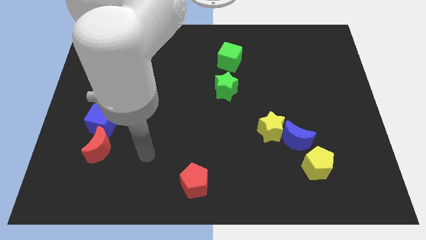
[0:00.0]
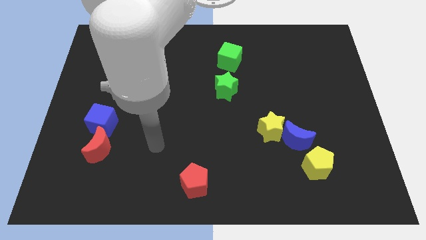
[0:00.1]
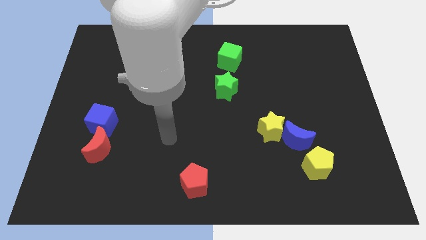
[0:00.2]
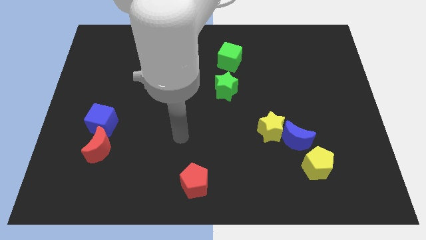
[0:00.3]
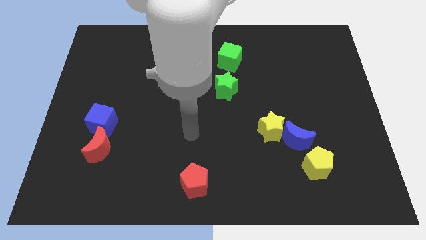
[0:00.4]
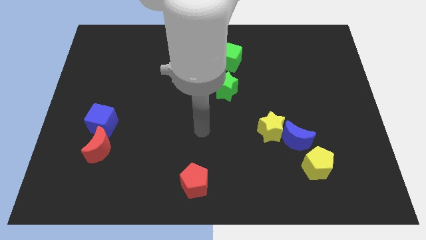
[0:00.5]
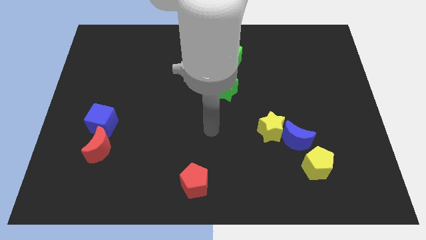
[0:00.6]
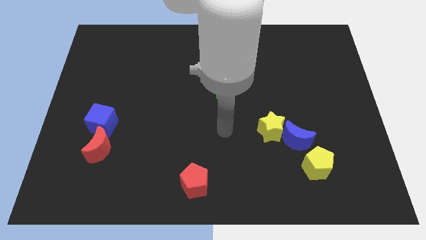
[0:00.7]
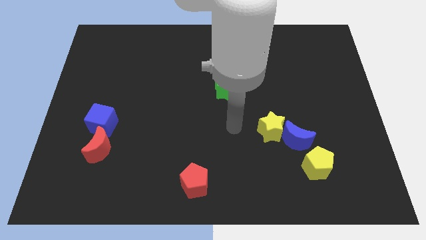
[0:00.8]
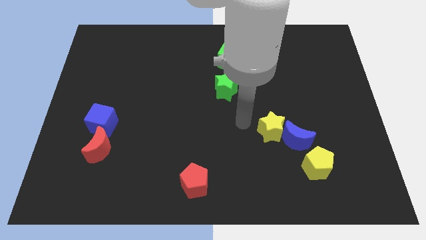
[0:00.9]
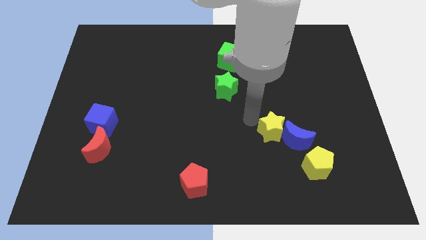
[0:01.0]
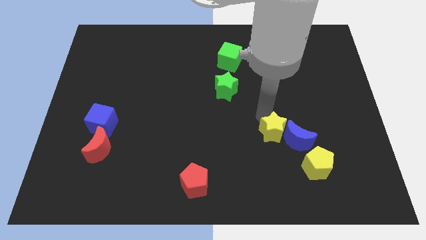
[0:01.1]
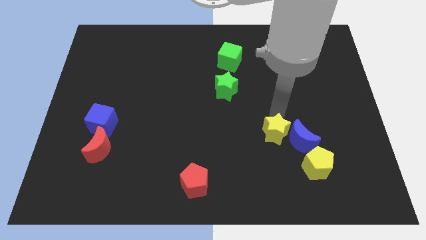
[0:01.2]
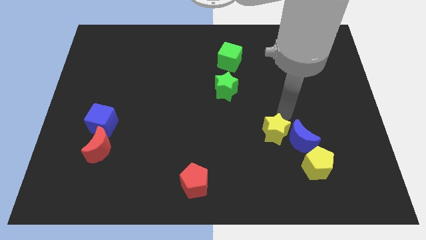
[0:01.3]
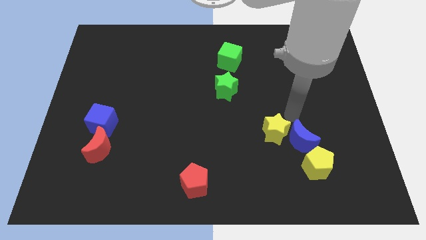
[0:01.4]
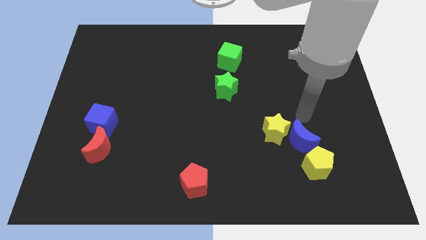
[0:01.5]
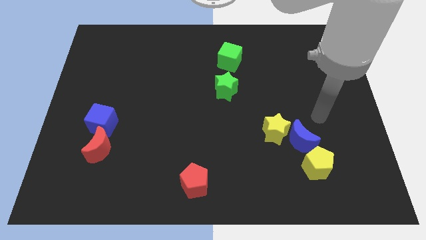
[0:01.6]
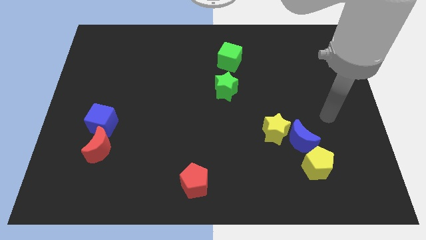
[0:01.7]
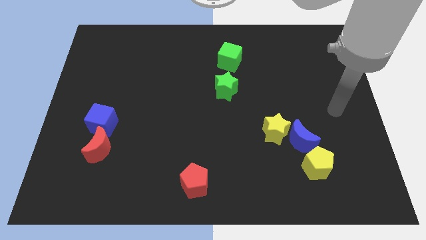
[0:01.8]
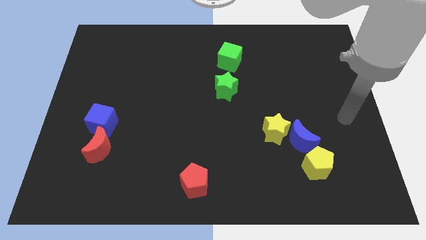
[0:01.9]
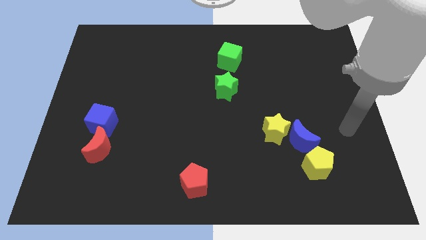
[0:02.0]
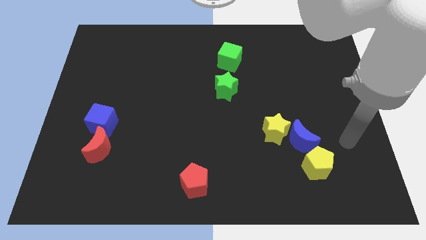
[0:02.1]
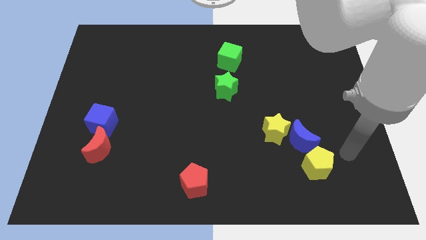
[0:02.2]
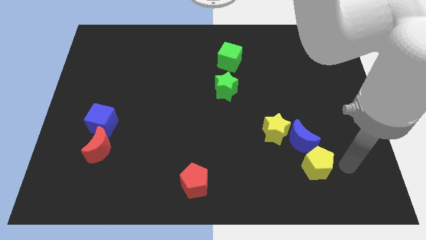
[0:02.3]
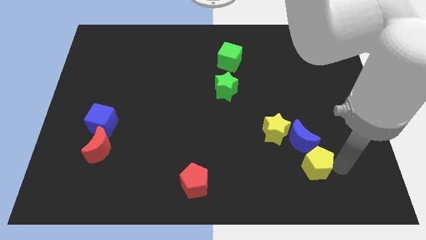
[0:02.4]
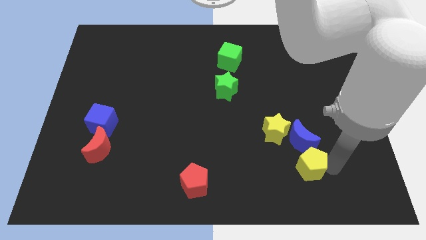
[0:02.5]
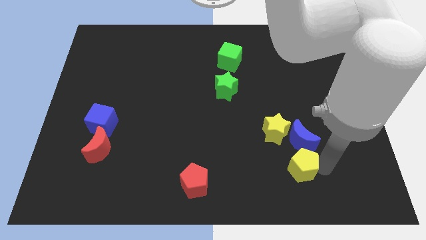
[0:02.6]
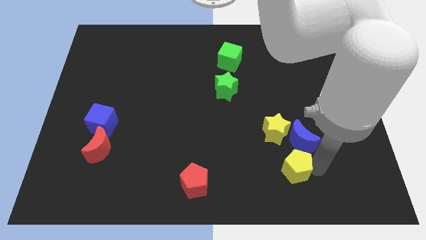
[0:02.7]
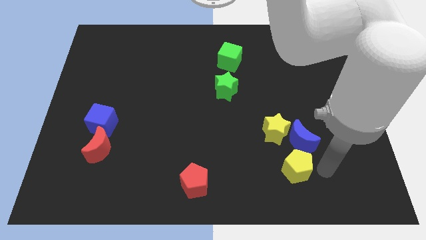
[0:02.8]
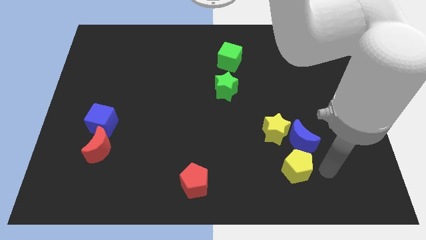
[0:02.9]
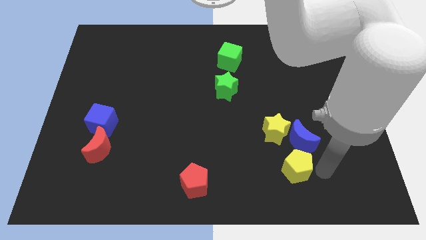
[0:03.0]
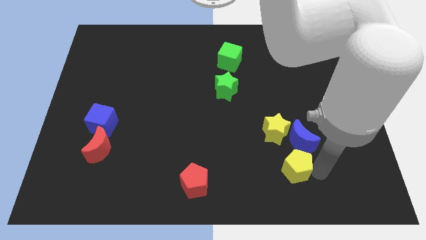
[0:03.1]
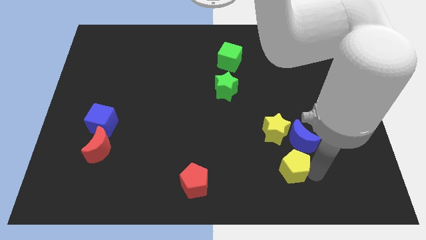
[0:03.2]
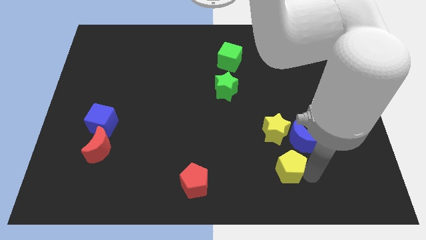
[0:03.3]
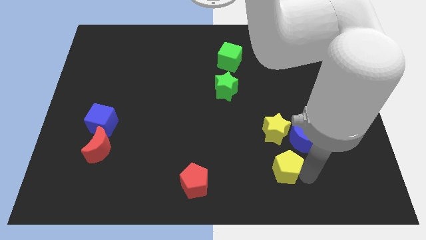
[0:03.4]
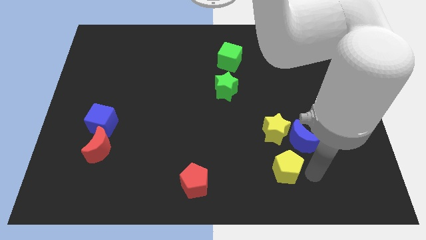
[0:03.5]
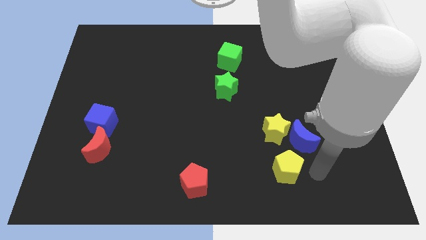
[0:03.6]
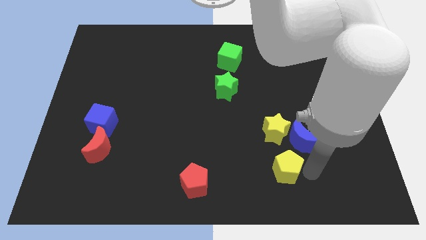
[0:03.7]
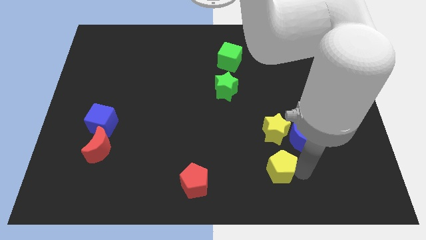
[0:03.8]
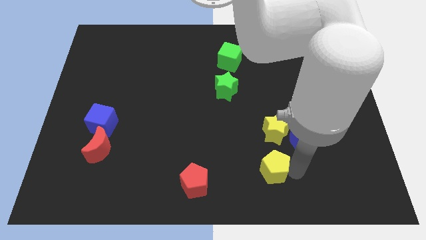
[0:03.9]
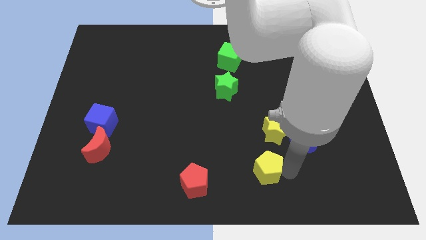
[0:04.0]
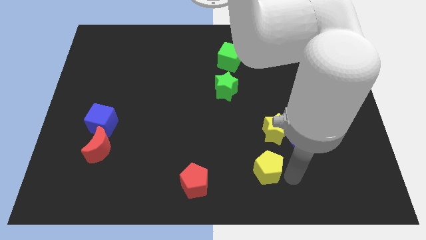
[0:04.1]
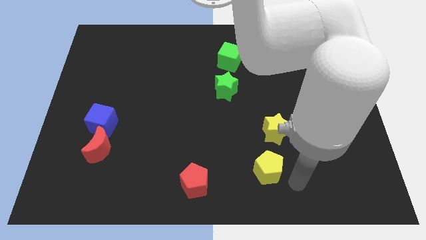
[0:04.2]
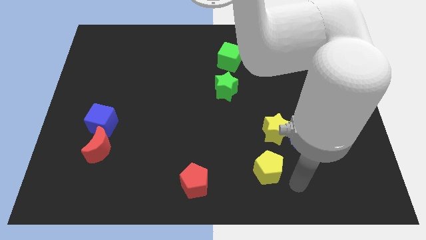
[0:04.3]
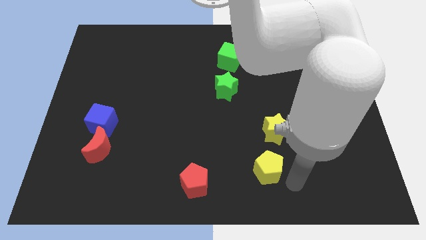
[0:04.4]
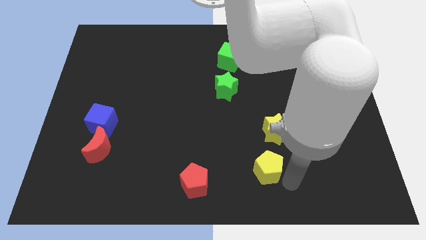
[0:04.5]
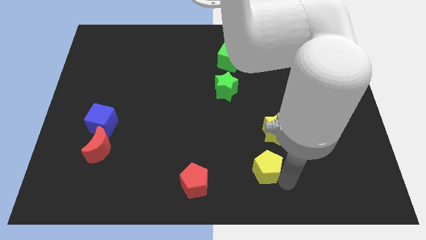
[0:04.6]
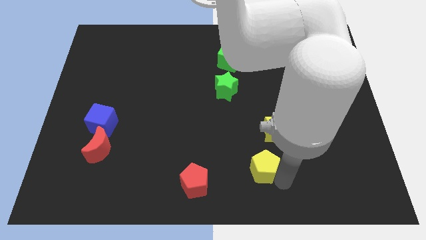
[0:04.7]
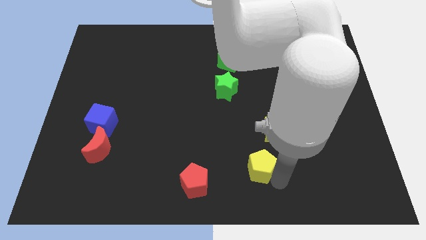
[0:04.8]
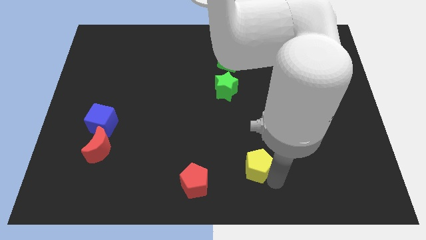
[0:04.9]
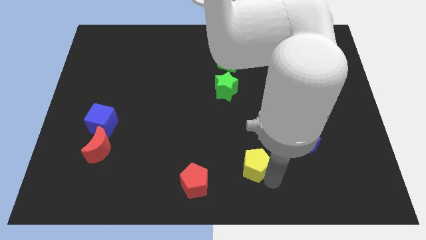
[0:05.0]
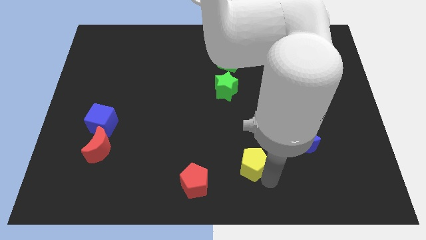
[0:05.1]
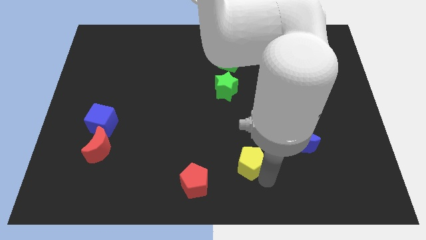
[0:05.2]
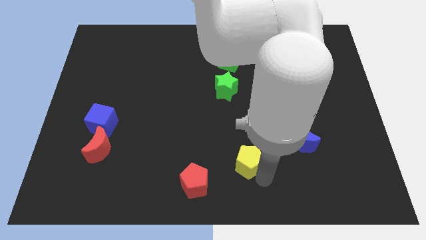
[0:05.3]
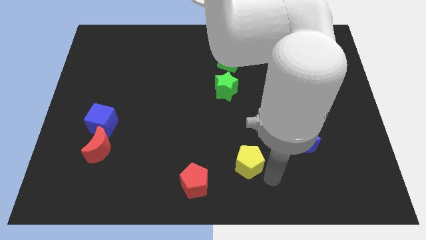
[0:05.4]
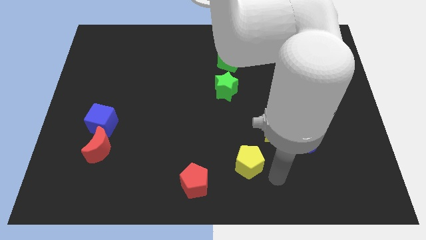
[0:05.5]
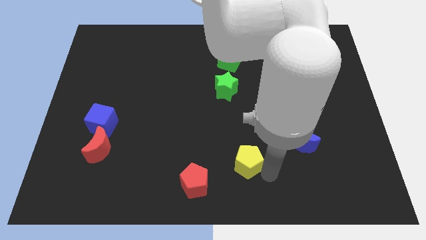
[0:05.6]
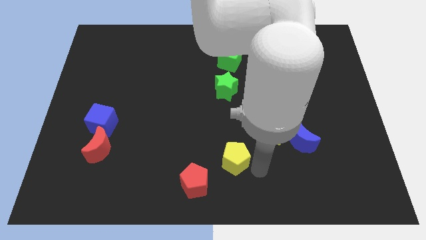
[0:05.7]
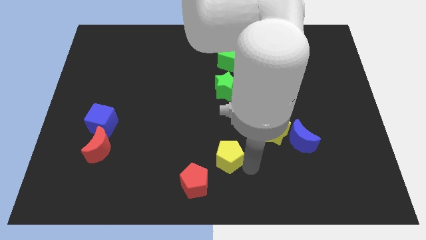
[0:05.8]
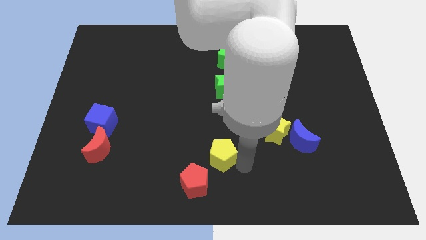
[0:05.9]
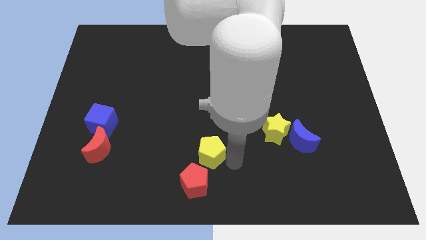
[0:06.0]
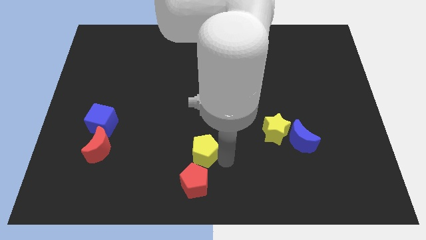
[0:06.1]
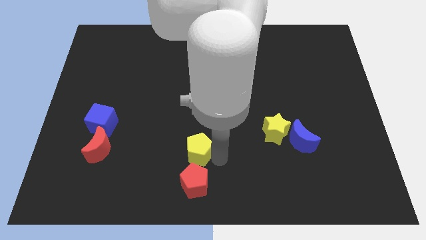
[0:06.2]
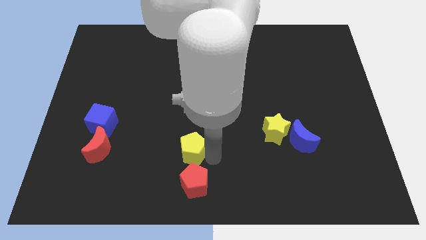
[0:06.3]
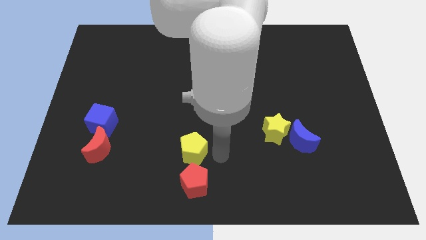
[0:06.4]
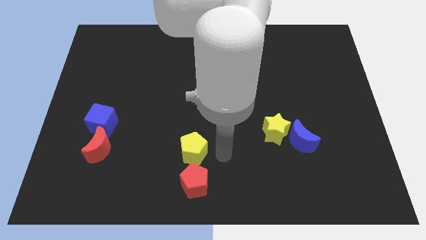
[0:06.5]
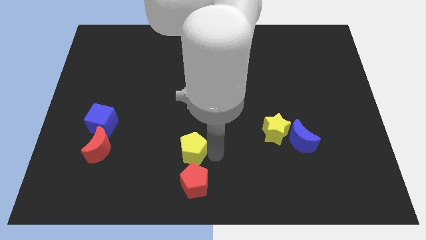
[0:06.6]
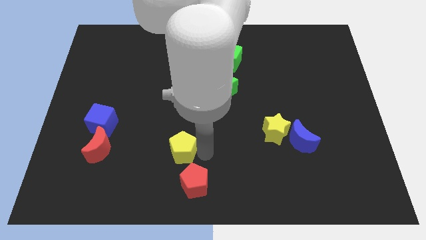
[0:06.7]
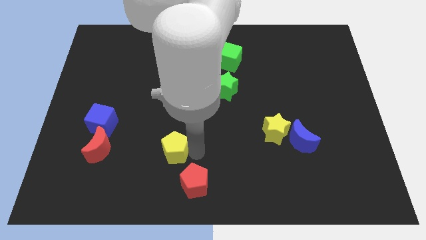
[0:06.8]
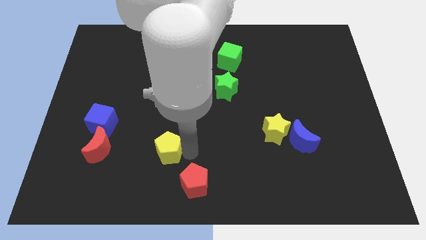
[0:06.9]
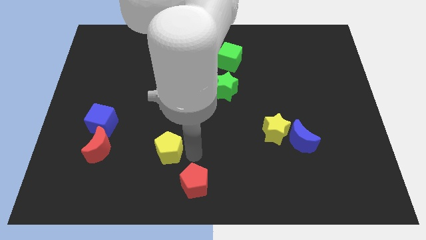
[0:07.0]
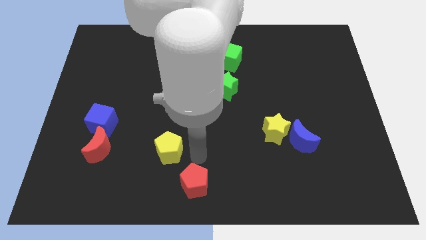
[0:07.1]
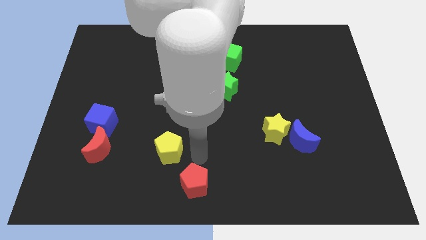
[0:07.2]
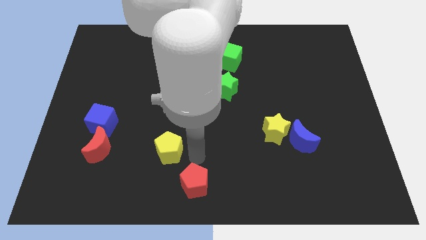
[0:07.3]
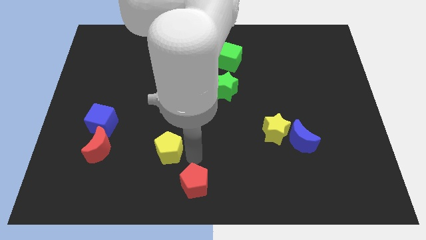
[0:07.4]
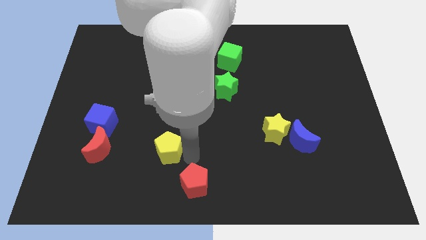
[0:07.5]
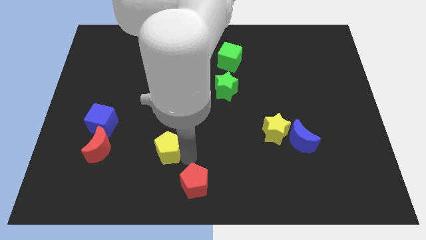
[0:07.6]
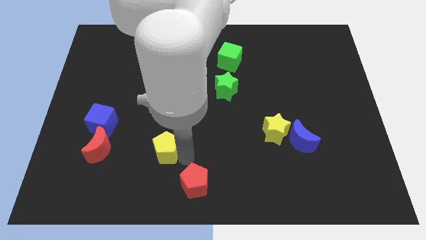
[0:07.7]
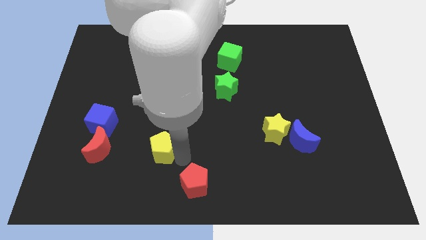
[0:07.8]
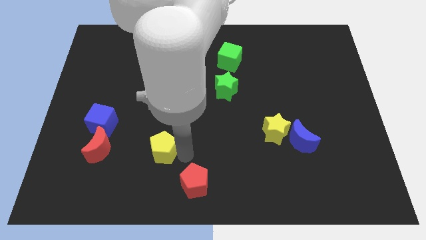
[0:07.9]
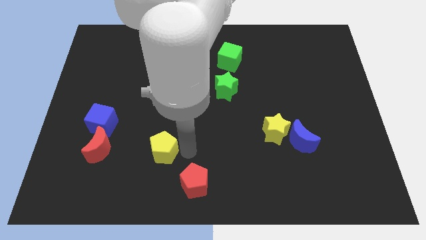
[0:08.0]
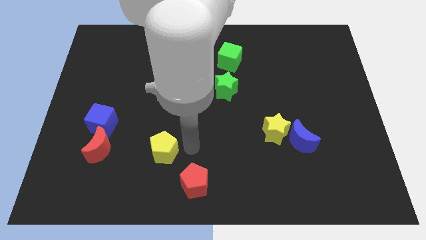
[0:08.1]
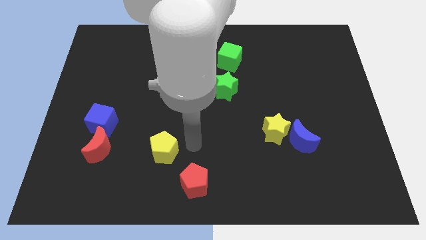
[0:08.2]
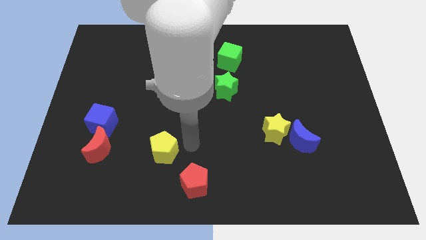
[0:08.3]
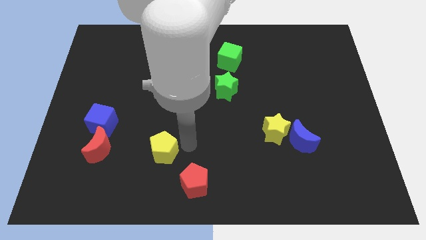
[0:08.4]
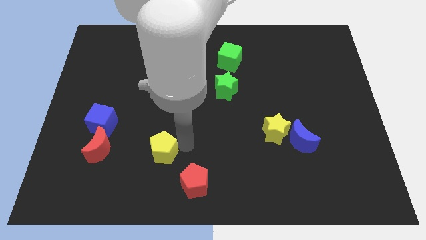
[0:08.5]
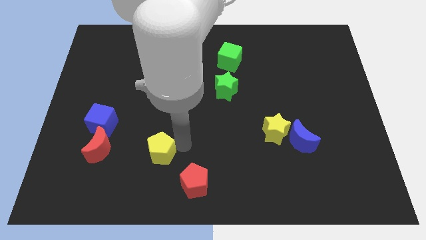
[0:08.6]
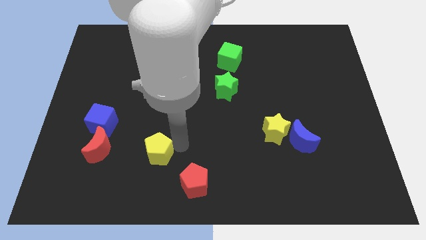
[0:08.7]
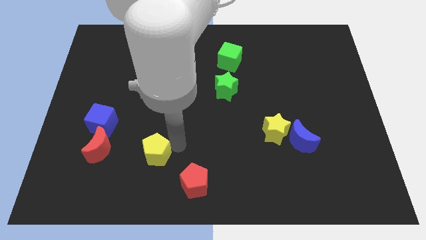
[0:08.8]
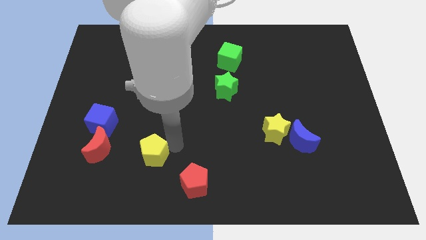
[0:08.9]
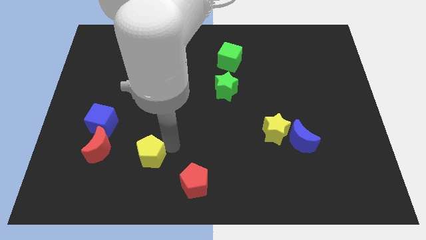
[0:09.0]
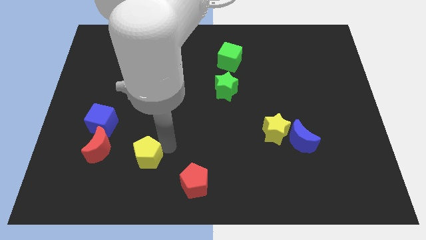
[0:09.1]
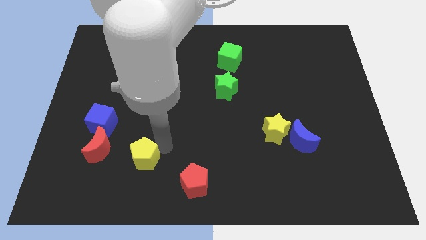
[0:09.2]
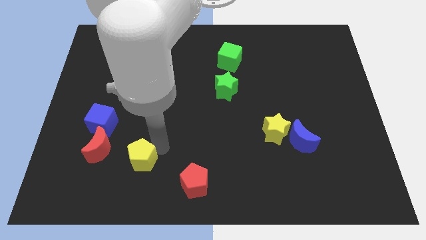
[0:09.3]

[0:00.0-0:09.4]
put the yellow pentagon to the bottom right of the red moon
